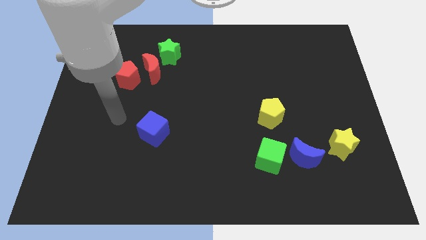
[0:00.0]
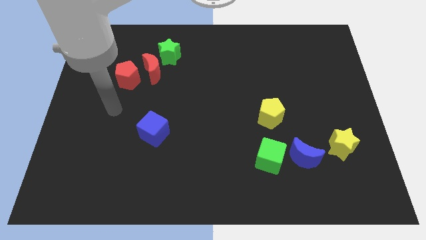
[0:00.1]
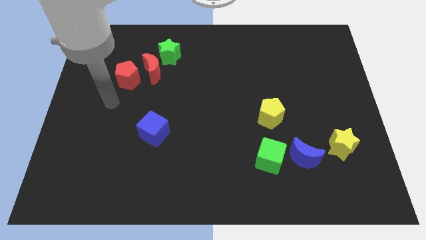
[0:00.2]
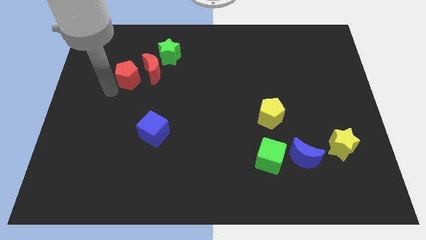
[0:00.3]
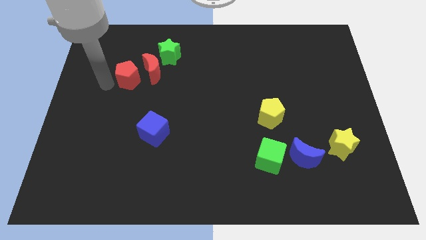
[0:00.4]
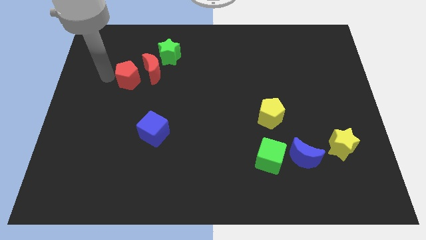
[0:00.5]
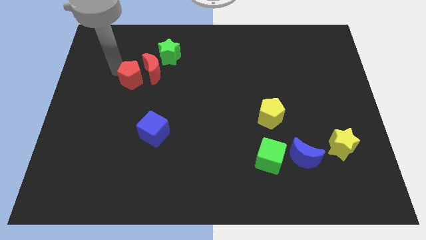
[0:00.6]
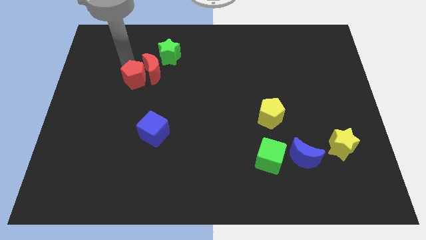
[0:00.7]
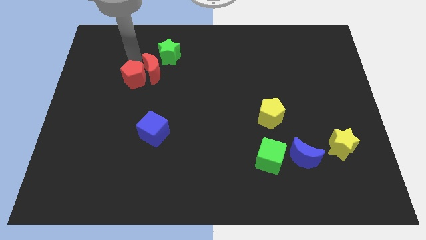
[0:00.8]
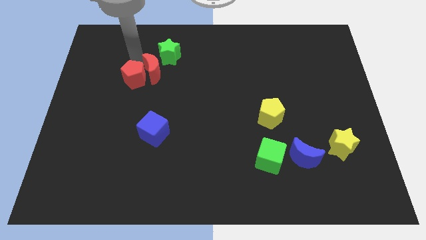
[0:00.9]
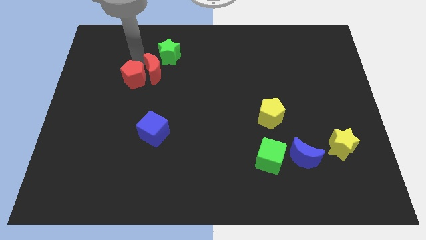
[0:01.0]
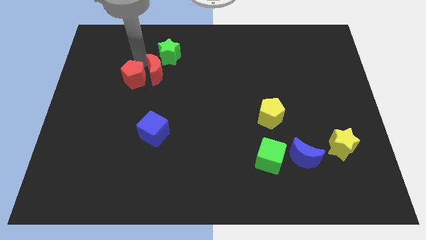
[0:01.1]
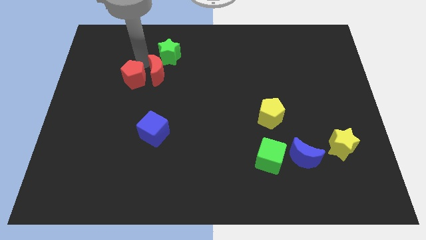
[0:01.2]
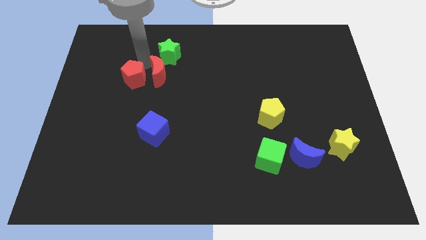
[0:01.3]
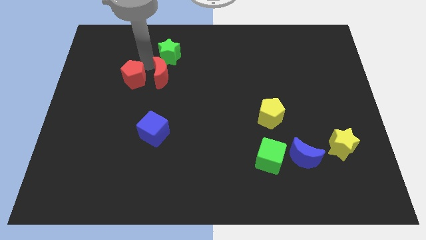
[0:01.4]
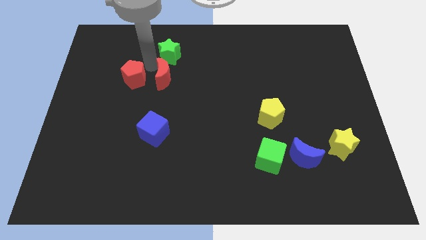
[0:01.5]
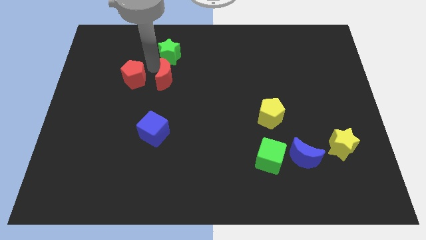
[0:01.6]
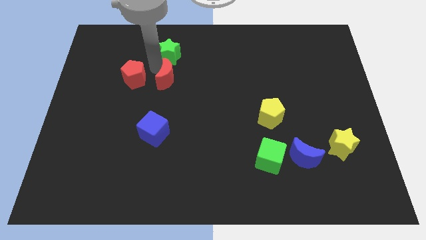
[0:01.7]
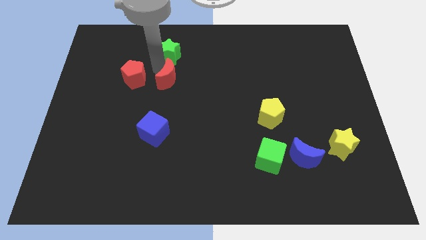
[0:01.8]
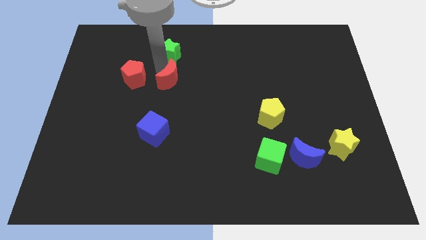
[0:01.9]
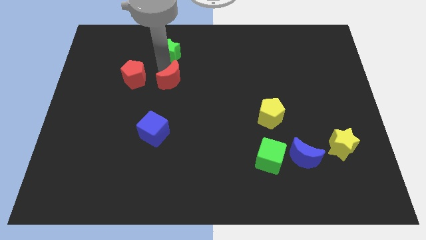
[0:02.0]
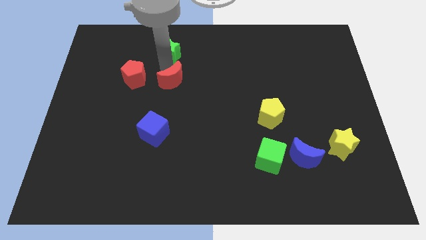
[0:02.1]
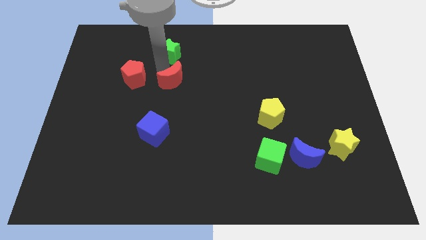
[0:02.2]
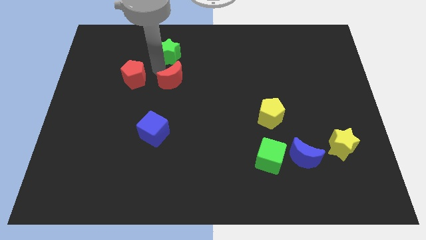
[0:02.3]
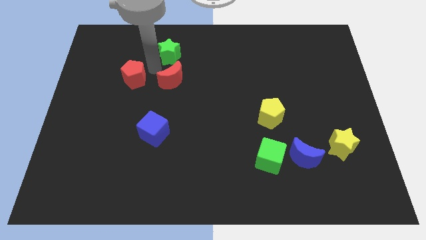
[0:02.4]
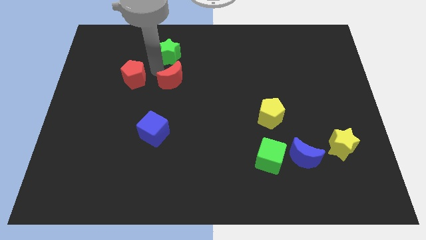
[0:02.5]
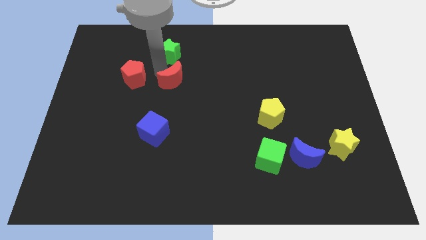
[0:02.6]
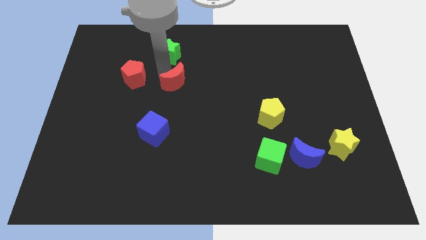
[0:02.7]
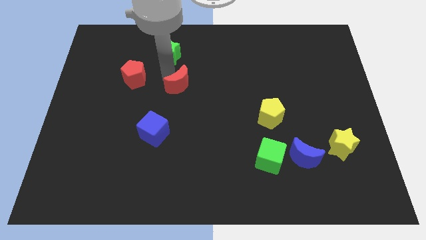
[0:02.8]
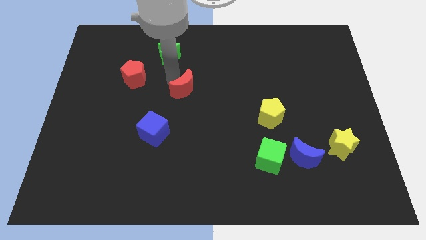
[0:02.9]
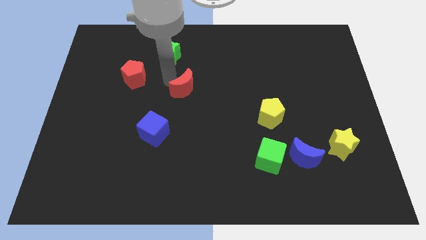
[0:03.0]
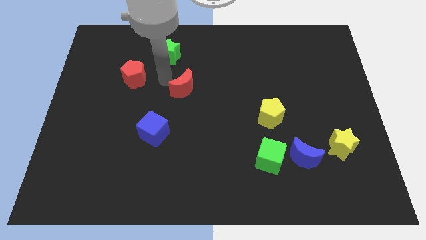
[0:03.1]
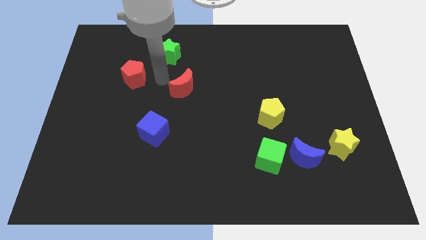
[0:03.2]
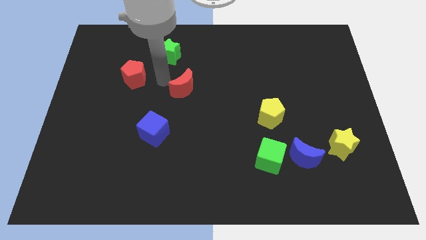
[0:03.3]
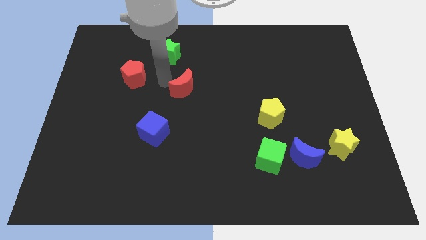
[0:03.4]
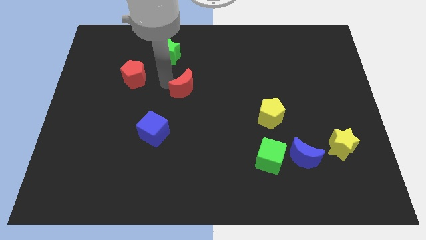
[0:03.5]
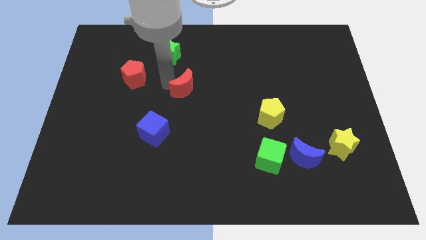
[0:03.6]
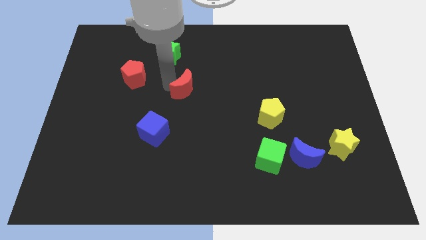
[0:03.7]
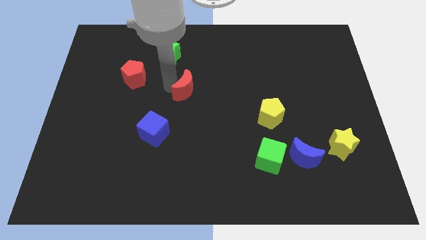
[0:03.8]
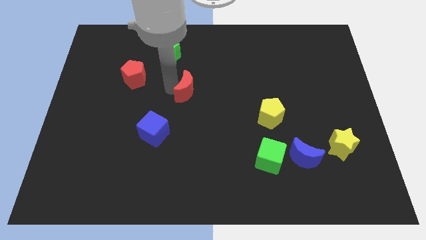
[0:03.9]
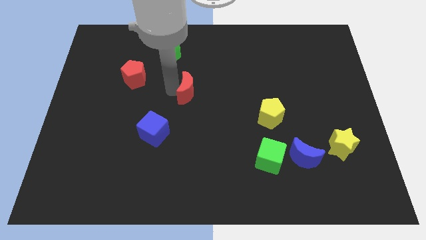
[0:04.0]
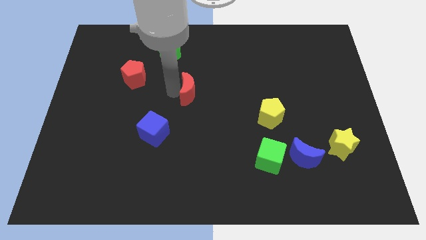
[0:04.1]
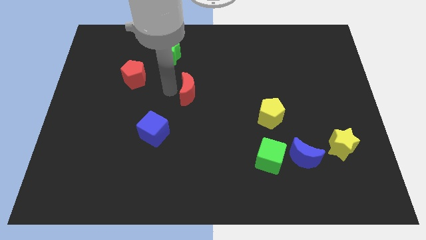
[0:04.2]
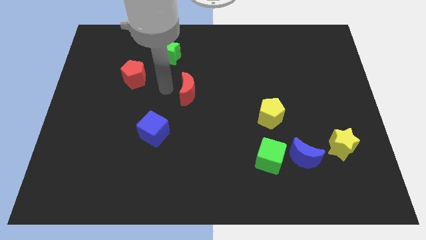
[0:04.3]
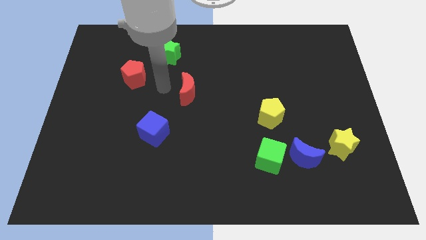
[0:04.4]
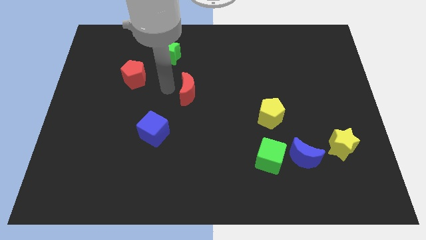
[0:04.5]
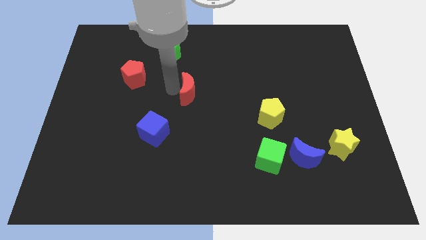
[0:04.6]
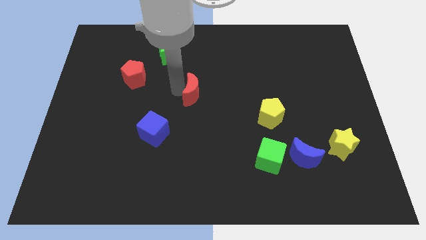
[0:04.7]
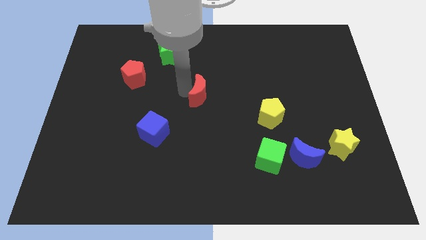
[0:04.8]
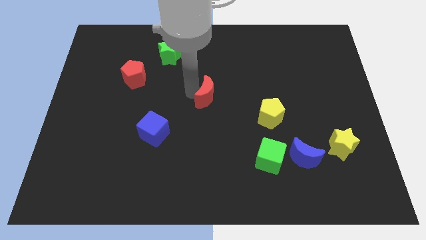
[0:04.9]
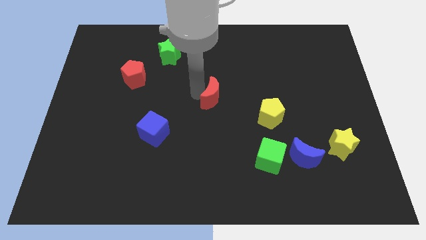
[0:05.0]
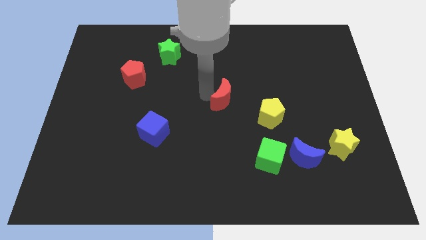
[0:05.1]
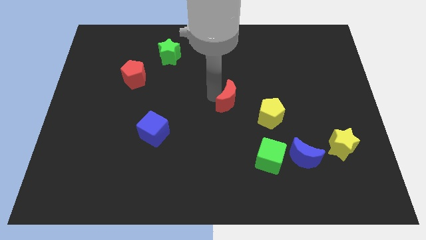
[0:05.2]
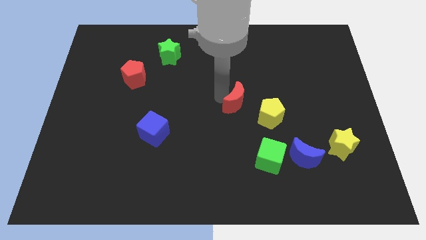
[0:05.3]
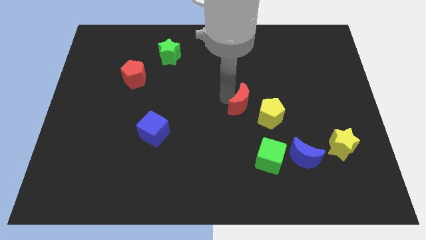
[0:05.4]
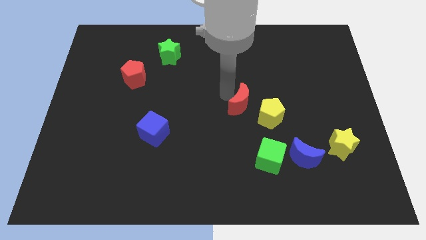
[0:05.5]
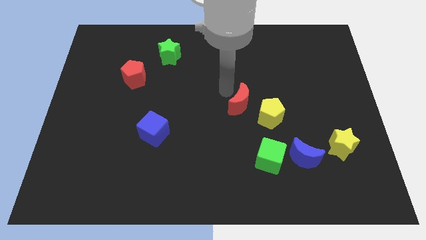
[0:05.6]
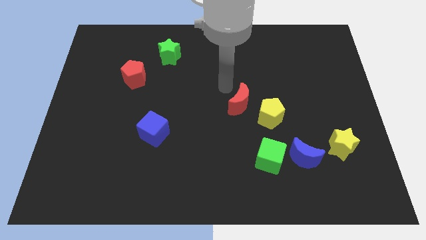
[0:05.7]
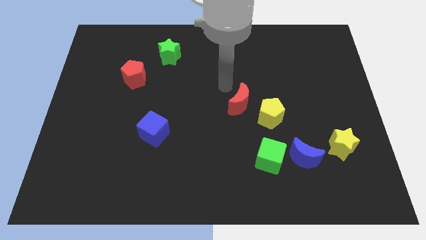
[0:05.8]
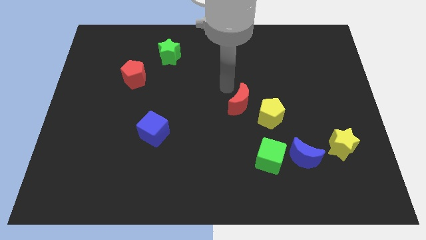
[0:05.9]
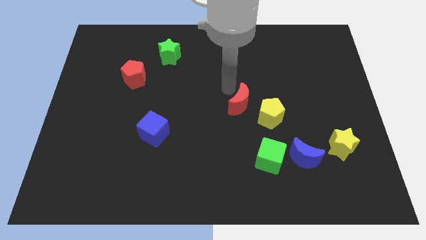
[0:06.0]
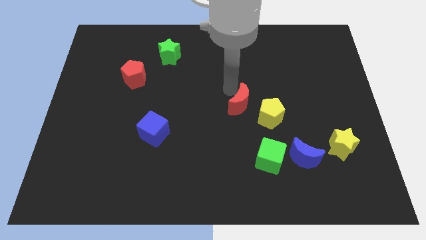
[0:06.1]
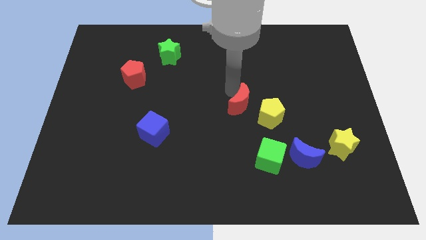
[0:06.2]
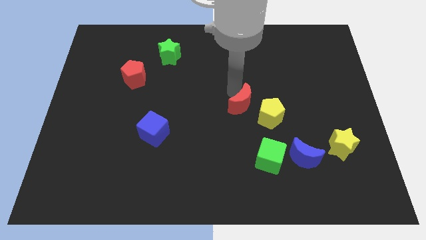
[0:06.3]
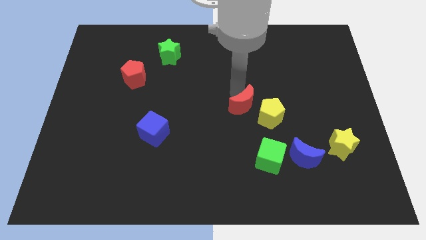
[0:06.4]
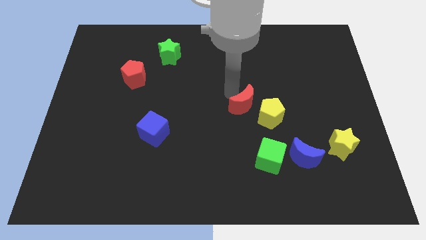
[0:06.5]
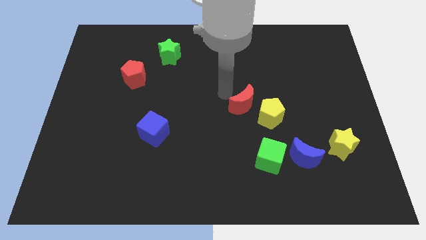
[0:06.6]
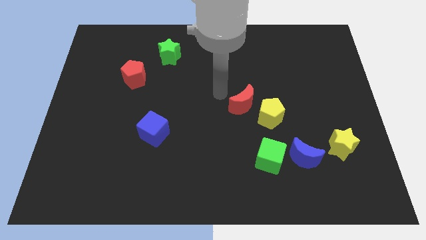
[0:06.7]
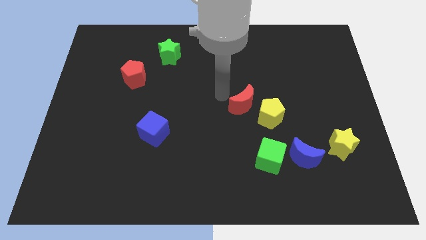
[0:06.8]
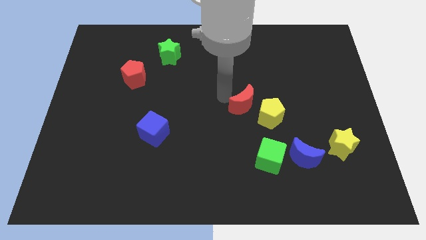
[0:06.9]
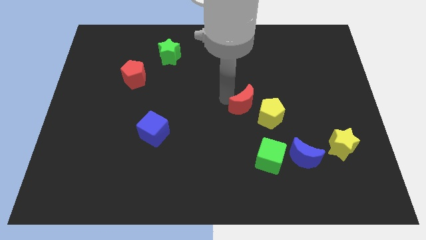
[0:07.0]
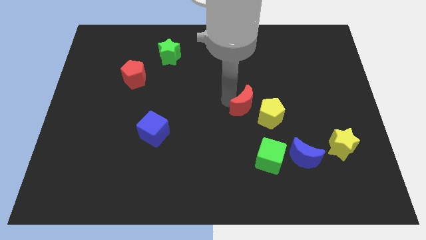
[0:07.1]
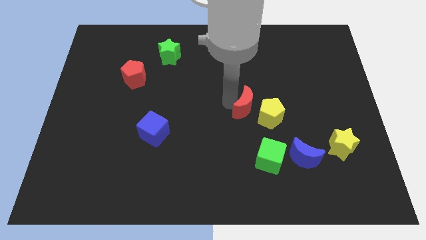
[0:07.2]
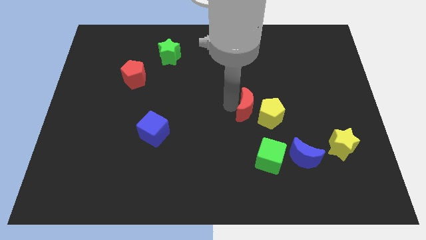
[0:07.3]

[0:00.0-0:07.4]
push the red moon to the yellow pentagon
